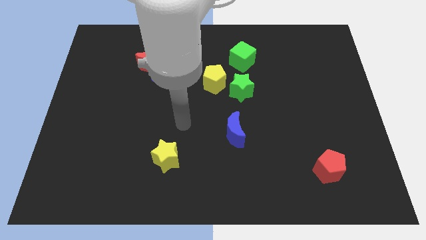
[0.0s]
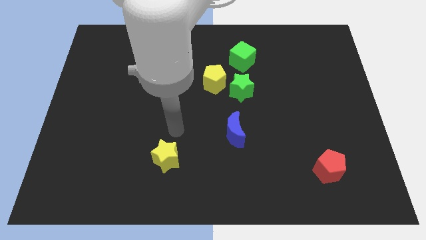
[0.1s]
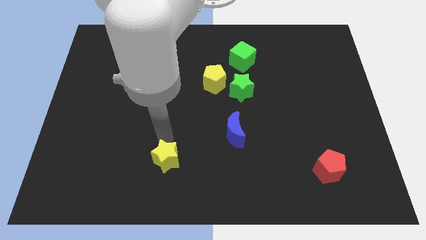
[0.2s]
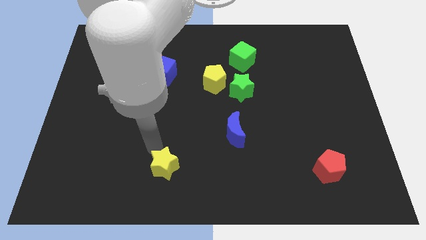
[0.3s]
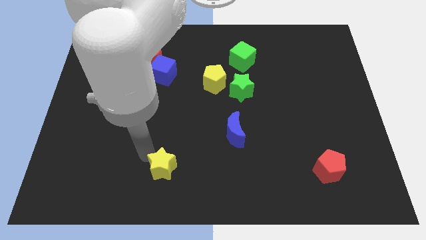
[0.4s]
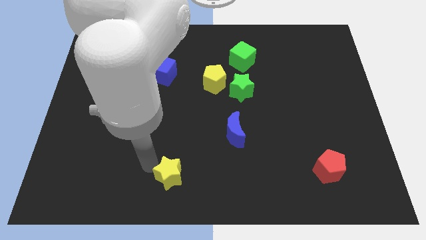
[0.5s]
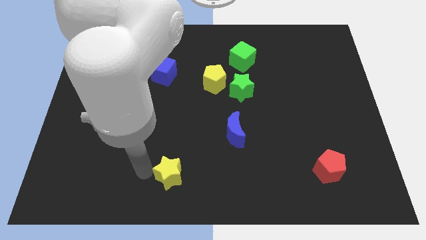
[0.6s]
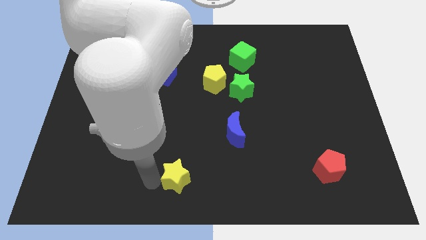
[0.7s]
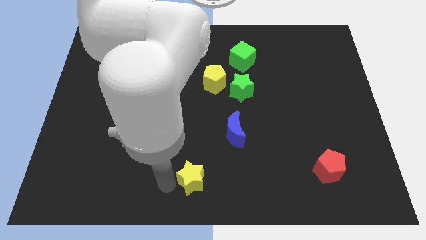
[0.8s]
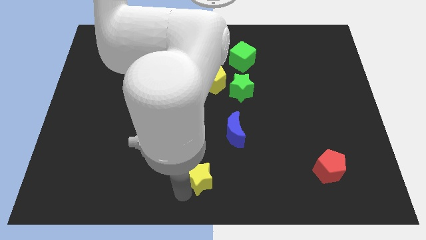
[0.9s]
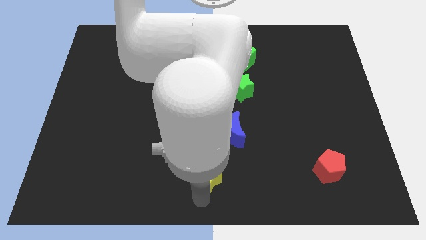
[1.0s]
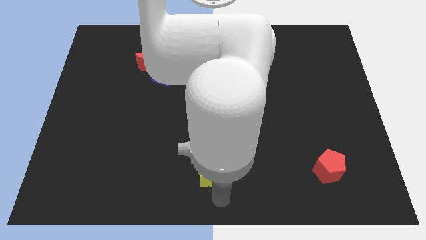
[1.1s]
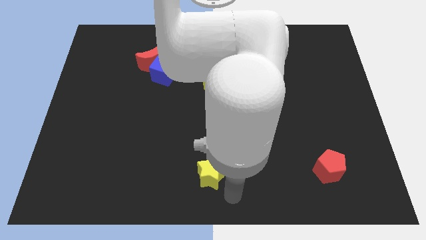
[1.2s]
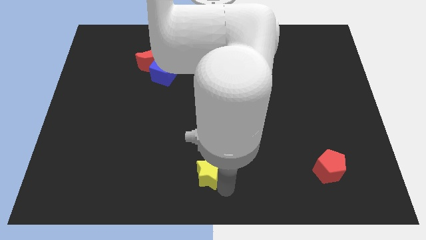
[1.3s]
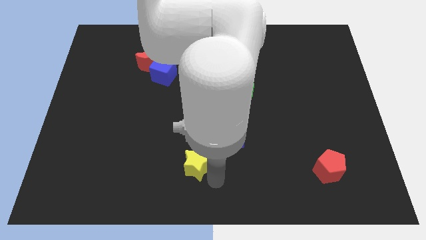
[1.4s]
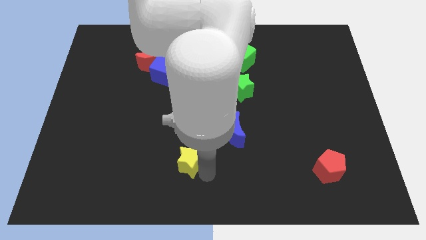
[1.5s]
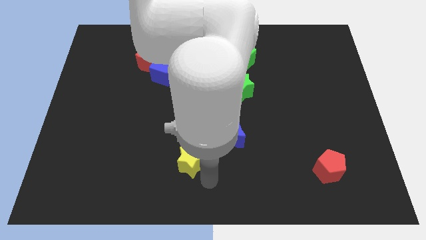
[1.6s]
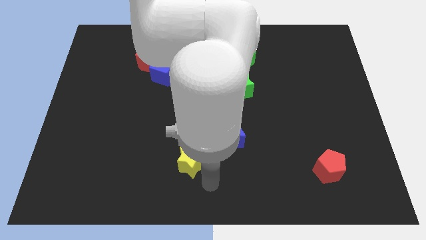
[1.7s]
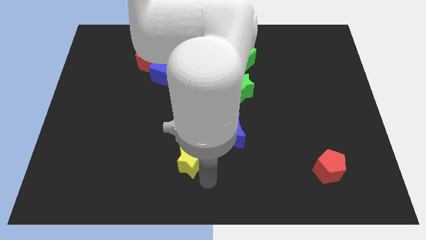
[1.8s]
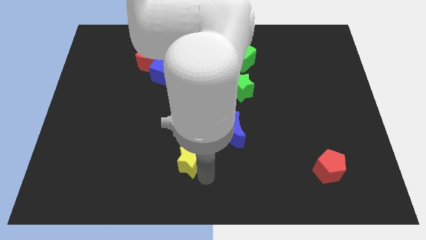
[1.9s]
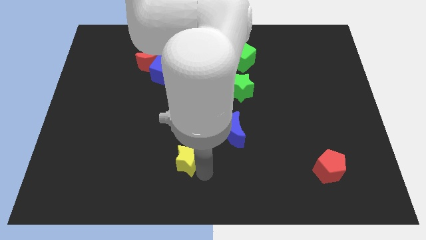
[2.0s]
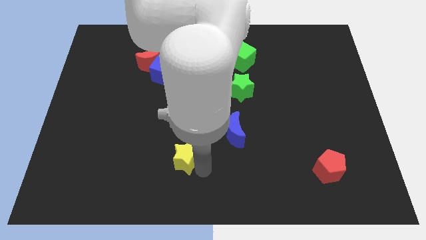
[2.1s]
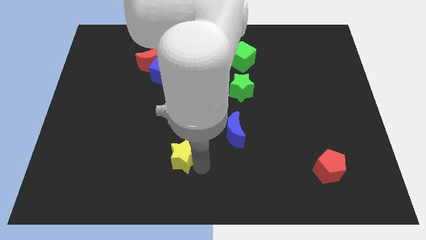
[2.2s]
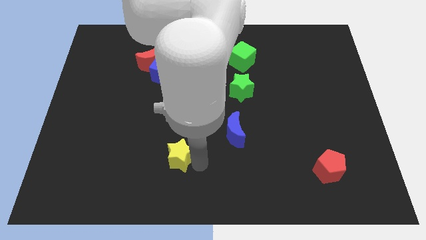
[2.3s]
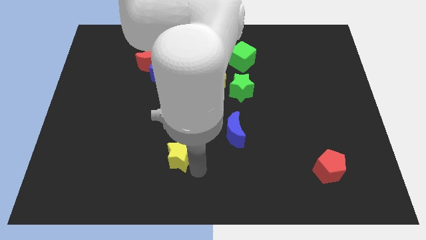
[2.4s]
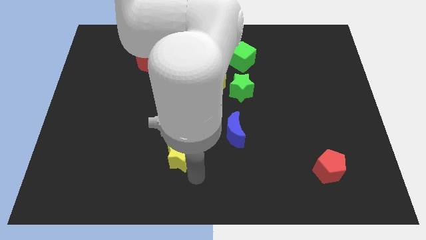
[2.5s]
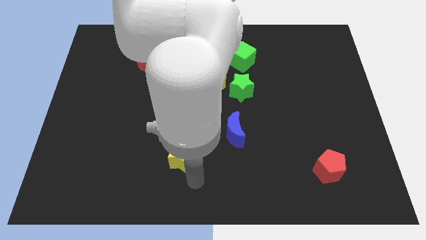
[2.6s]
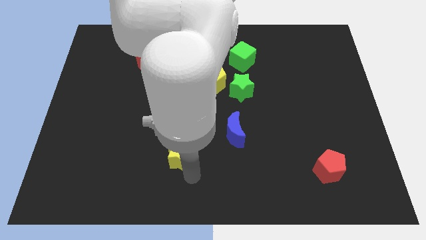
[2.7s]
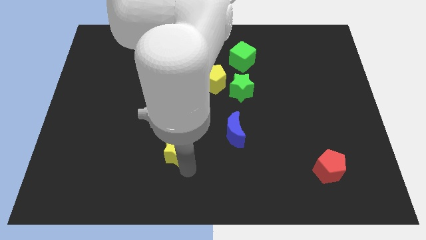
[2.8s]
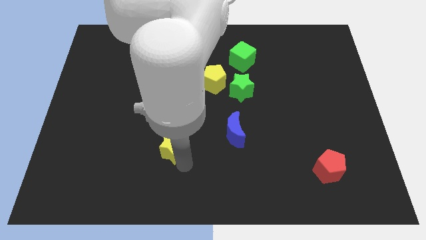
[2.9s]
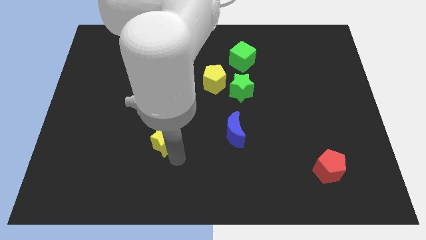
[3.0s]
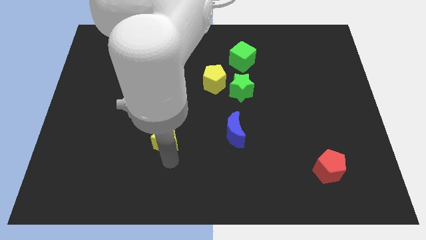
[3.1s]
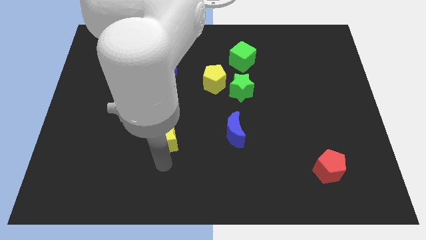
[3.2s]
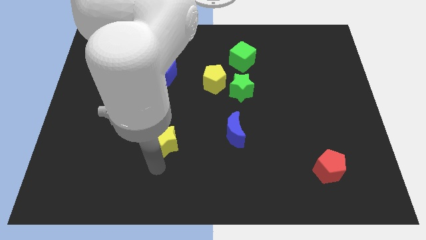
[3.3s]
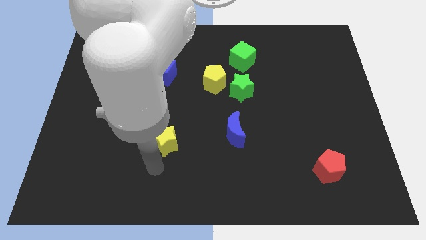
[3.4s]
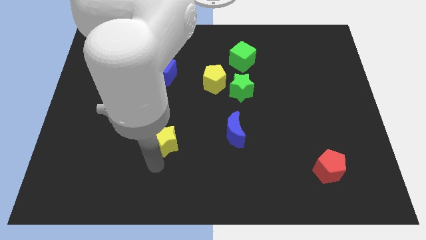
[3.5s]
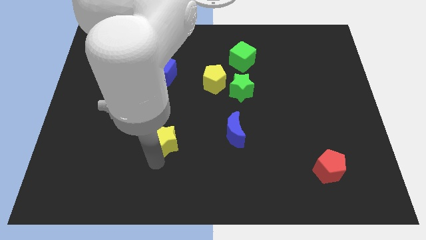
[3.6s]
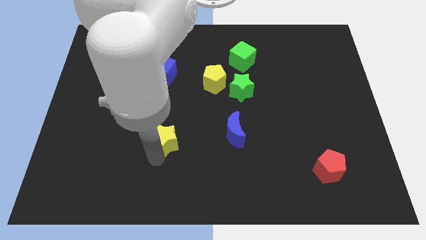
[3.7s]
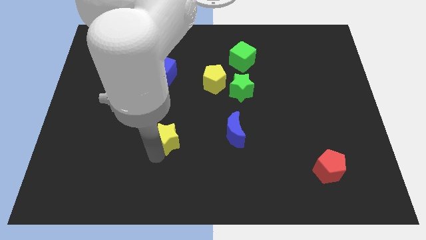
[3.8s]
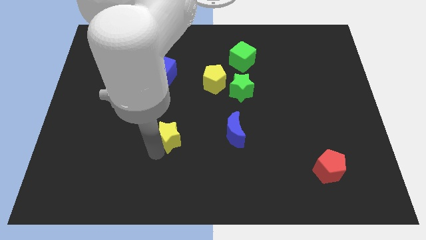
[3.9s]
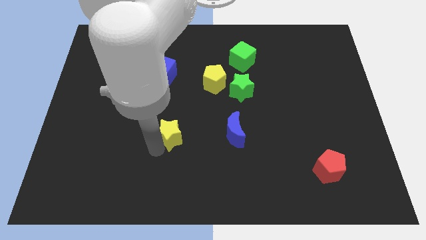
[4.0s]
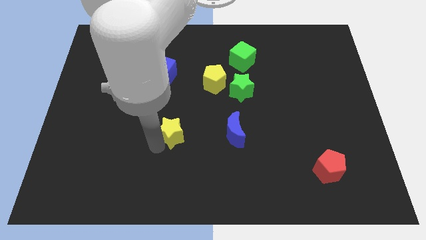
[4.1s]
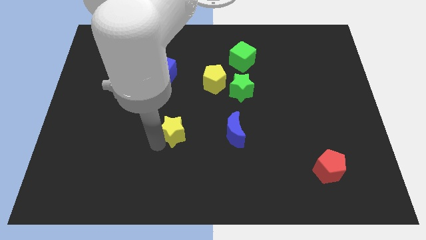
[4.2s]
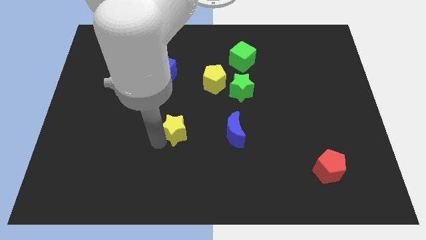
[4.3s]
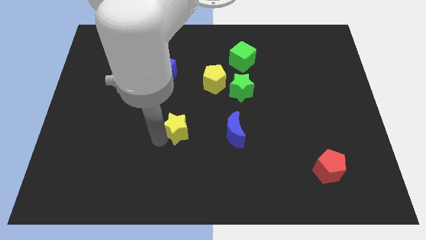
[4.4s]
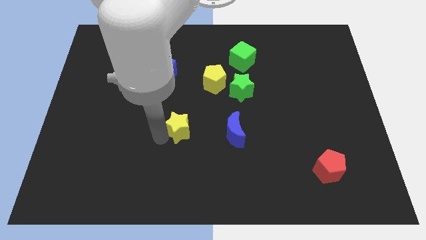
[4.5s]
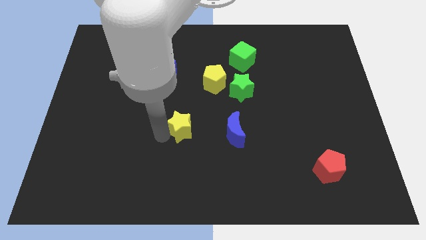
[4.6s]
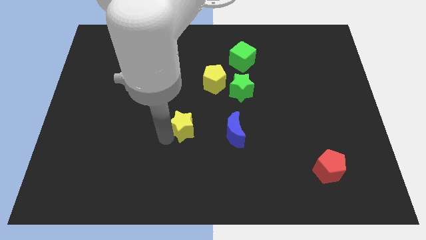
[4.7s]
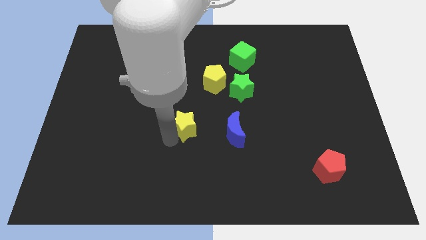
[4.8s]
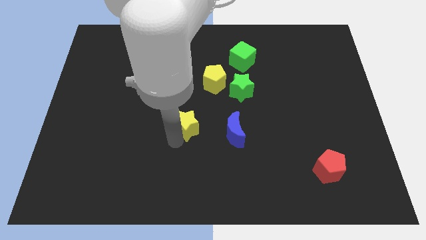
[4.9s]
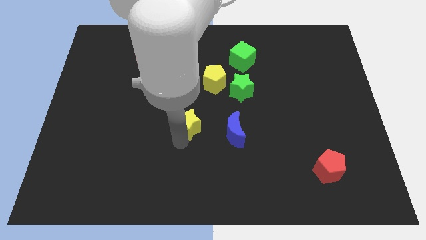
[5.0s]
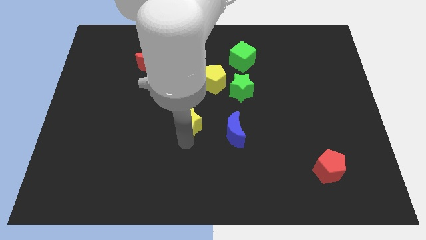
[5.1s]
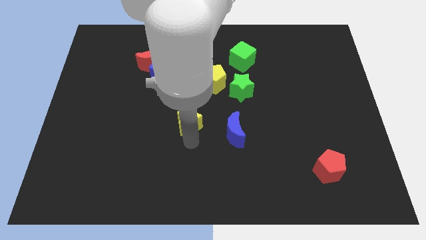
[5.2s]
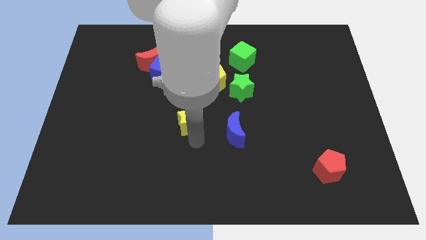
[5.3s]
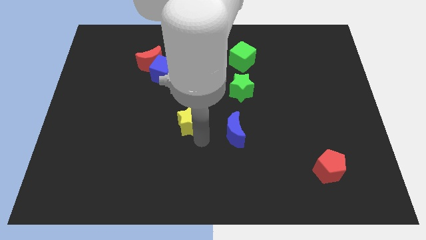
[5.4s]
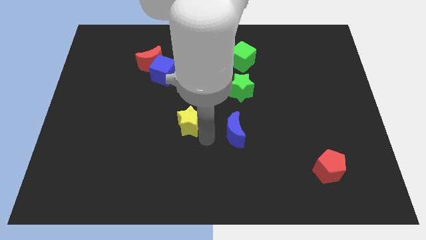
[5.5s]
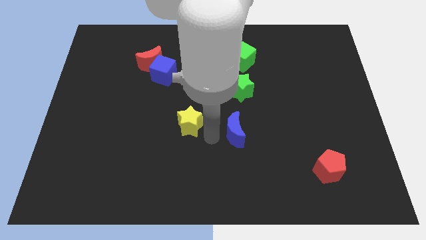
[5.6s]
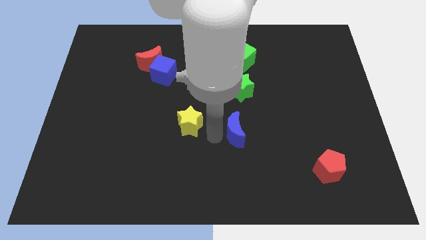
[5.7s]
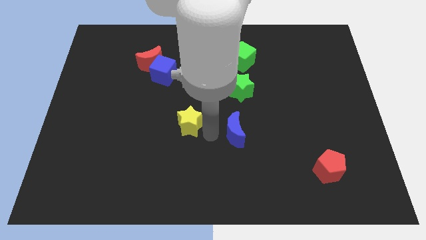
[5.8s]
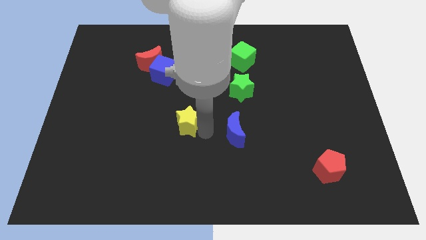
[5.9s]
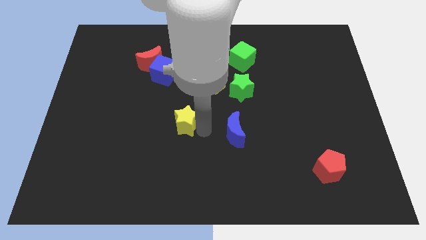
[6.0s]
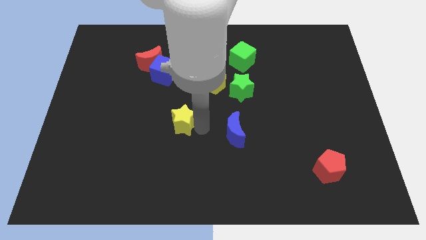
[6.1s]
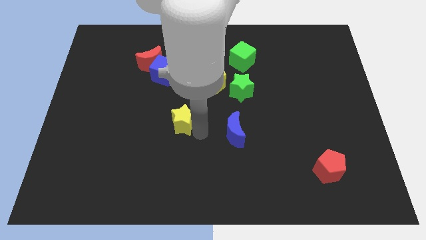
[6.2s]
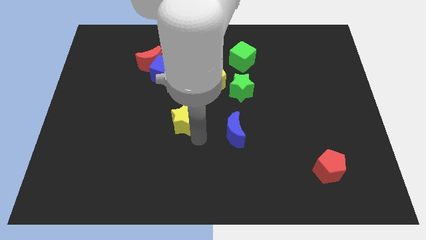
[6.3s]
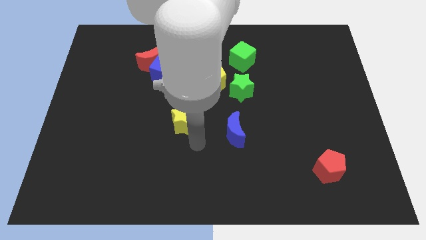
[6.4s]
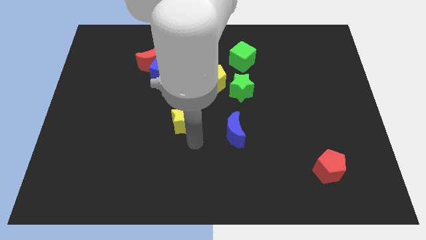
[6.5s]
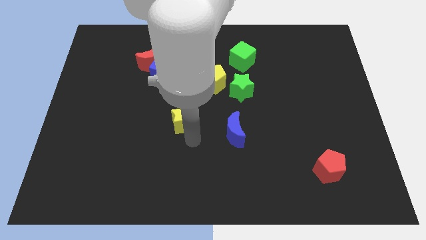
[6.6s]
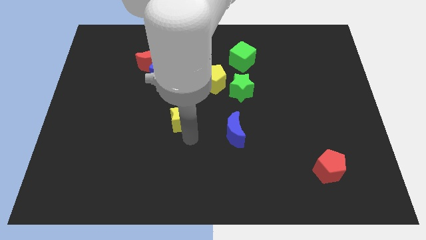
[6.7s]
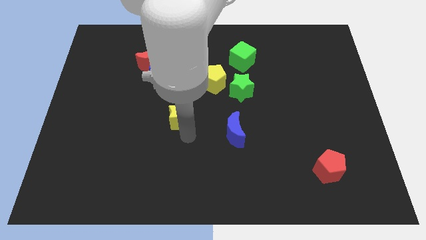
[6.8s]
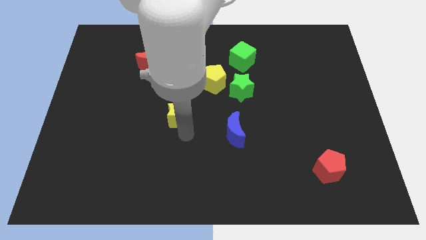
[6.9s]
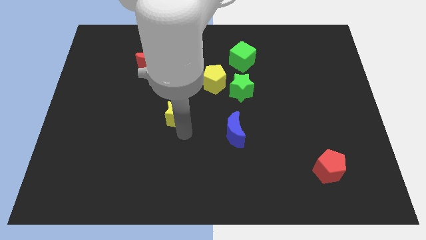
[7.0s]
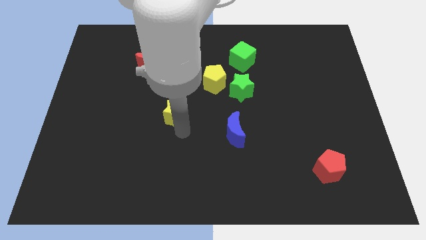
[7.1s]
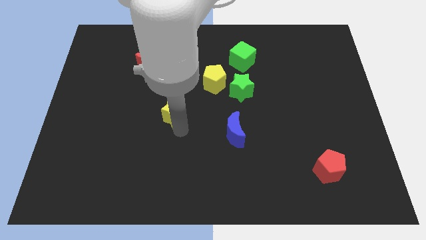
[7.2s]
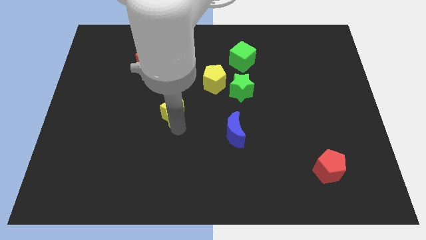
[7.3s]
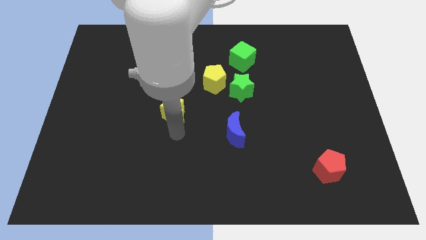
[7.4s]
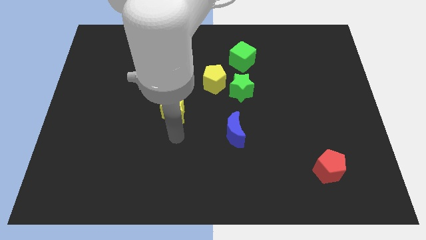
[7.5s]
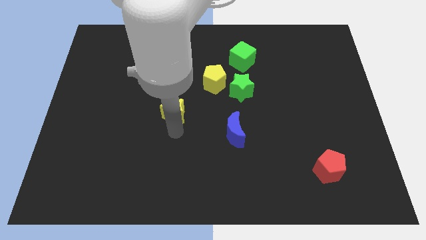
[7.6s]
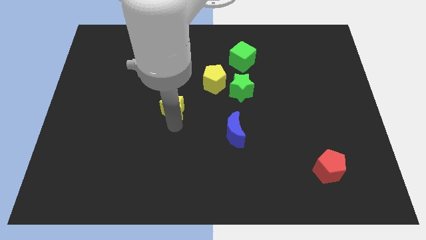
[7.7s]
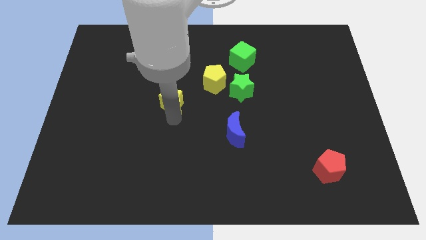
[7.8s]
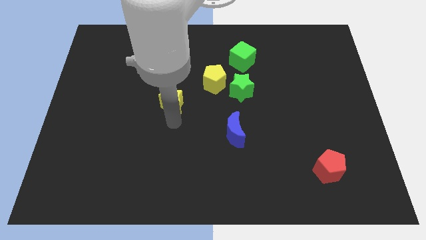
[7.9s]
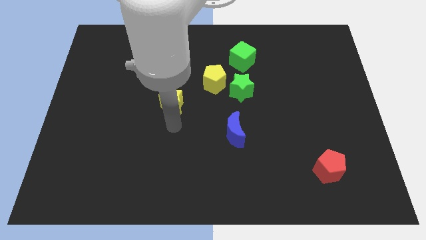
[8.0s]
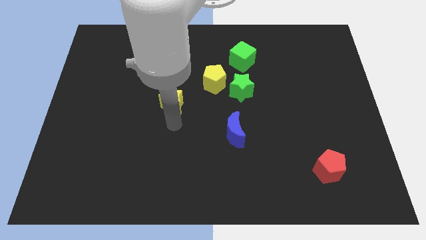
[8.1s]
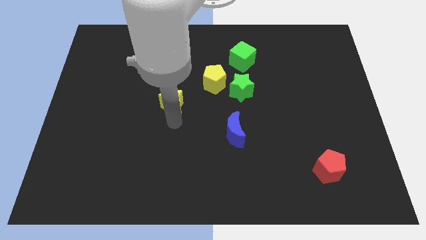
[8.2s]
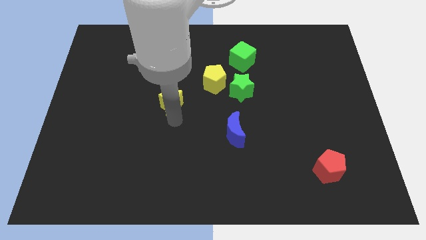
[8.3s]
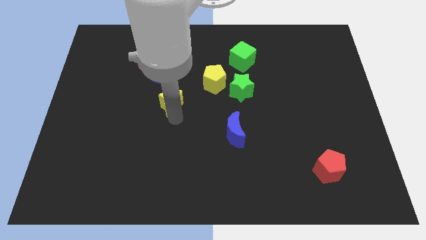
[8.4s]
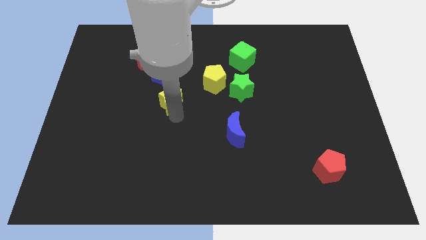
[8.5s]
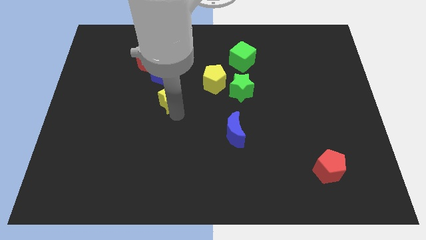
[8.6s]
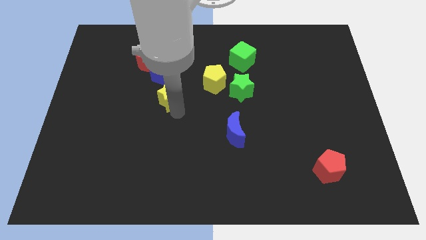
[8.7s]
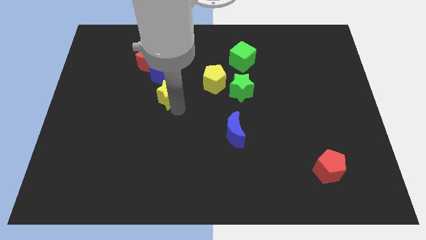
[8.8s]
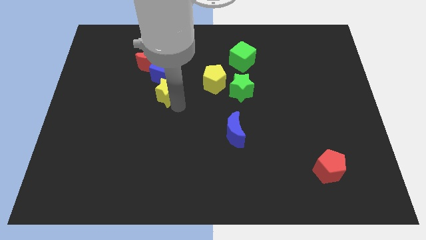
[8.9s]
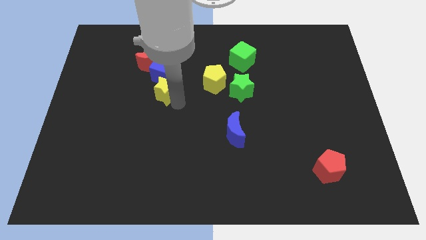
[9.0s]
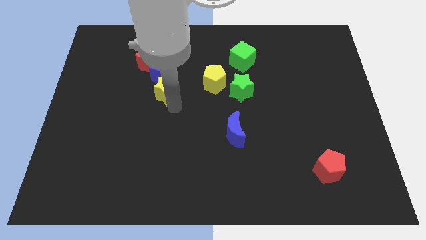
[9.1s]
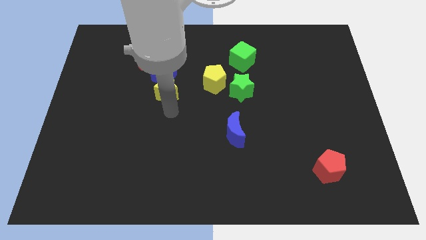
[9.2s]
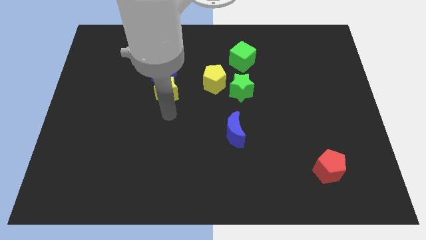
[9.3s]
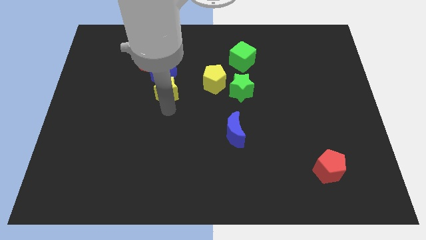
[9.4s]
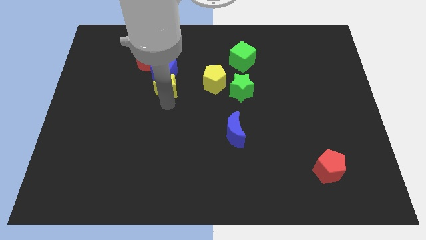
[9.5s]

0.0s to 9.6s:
move the yellow star close to the blue cube
